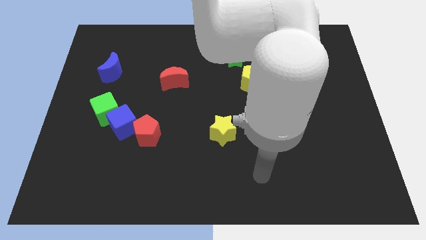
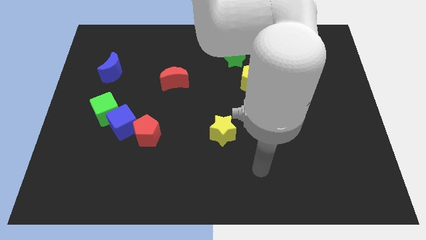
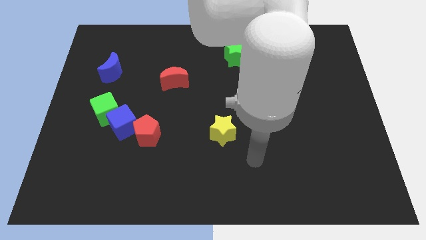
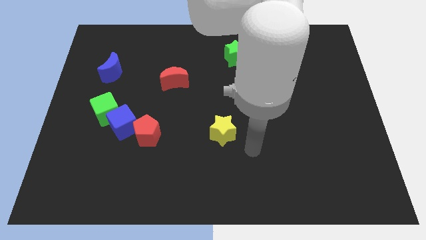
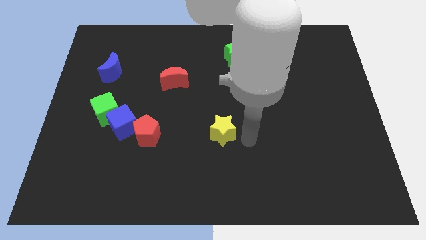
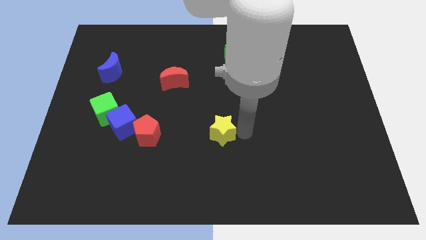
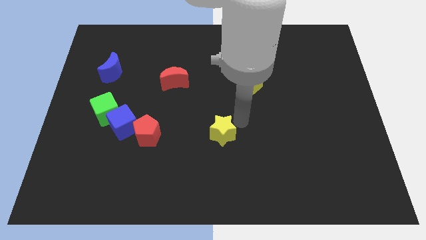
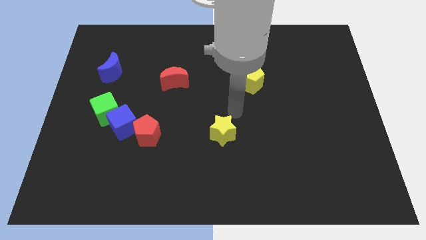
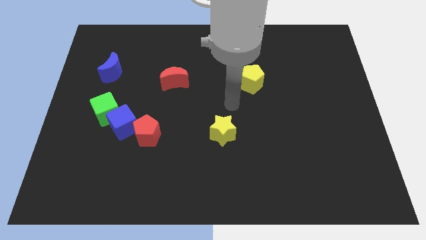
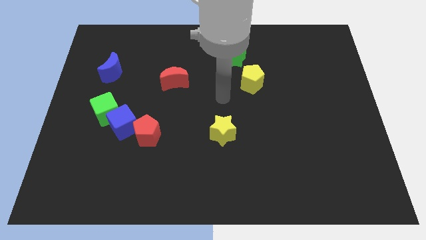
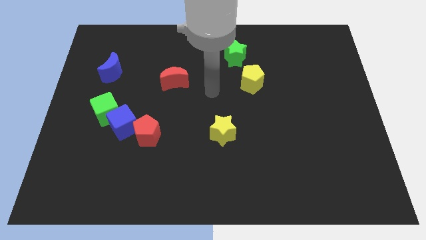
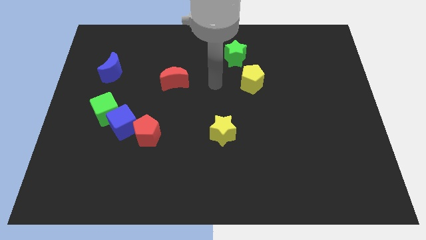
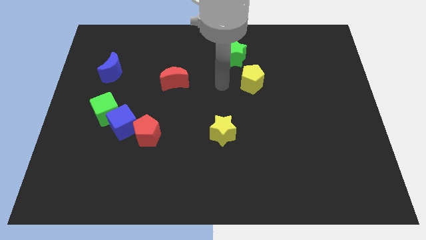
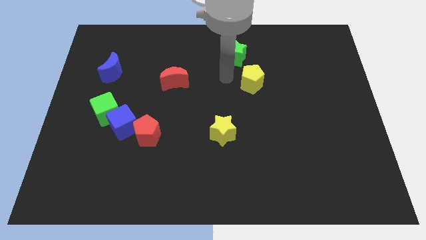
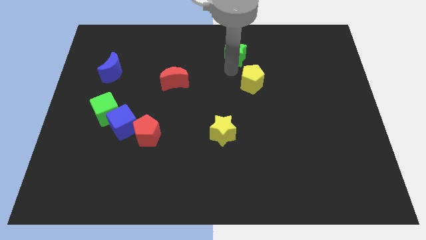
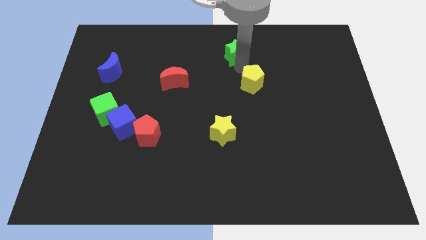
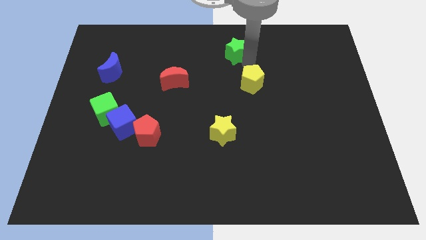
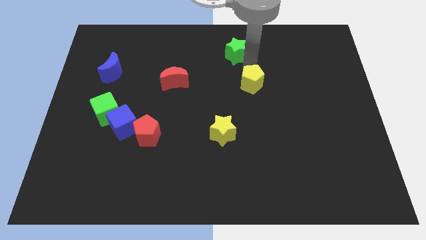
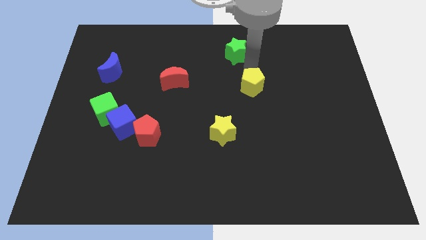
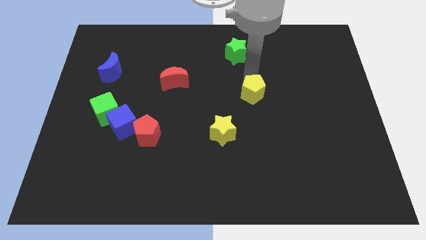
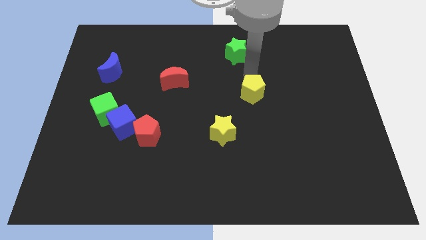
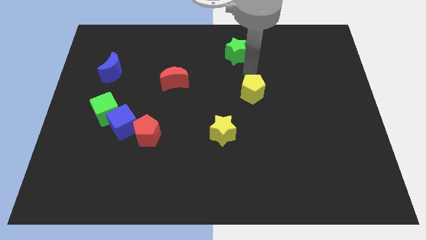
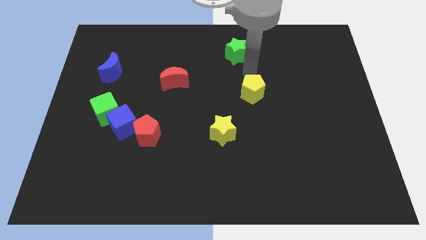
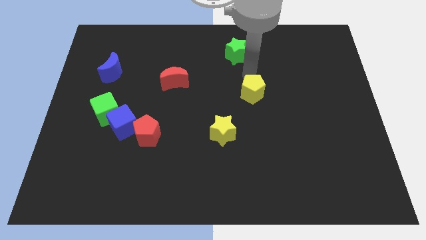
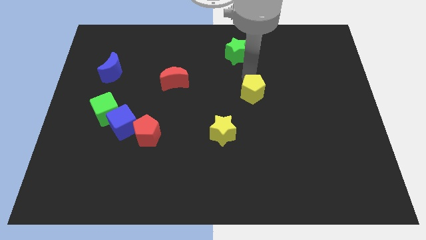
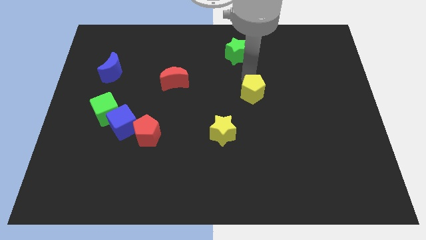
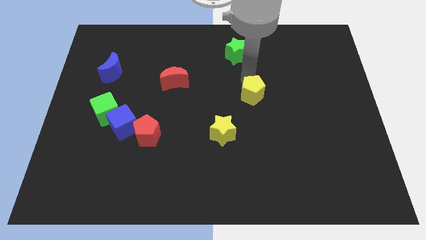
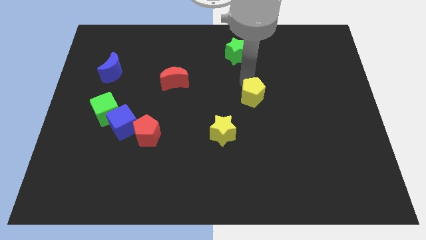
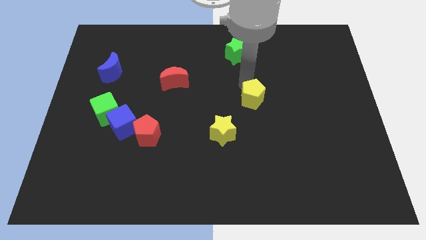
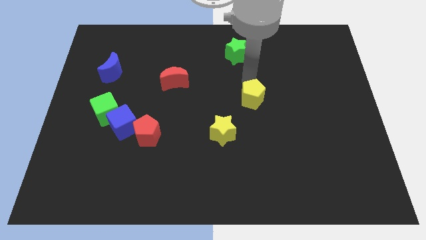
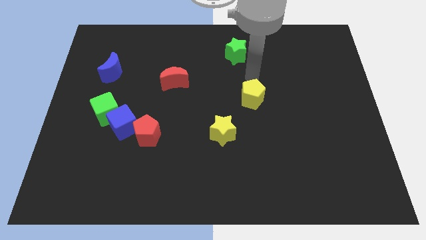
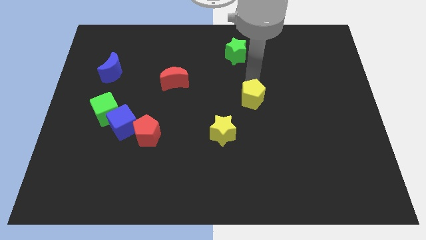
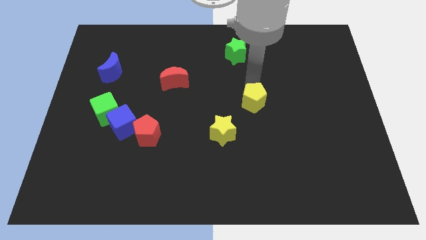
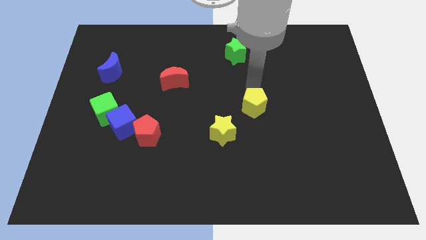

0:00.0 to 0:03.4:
slightly push the yellow pentagon down

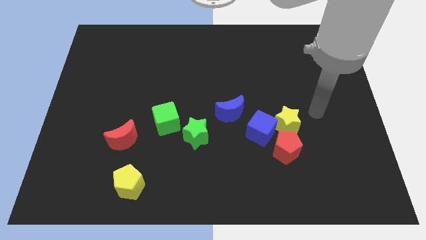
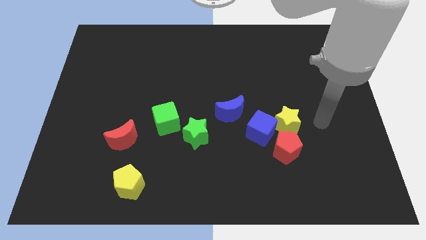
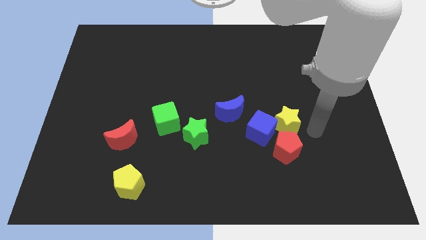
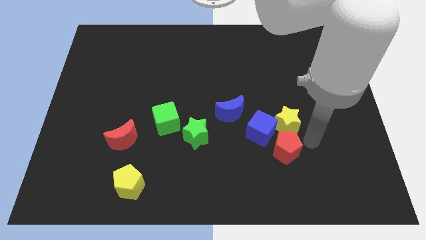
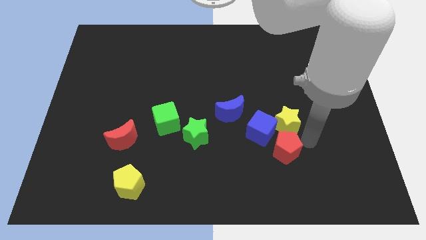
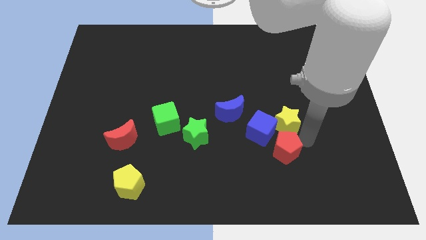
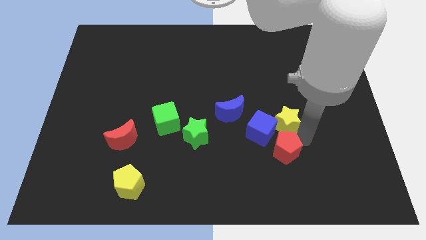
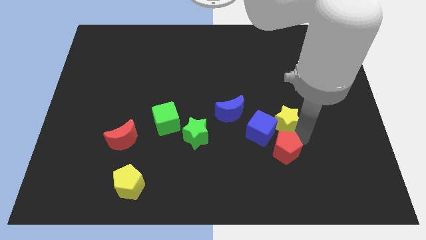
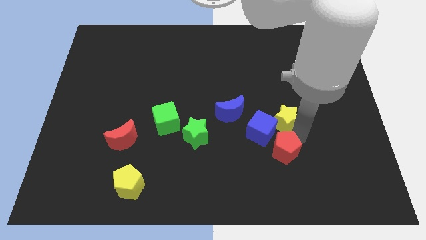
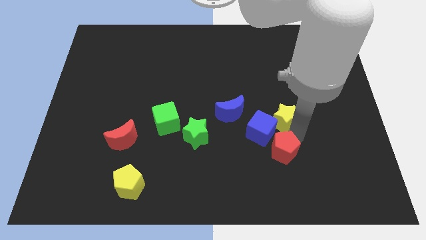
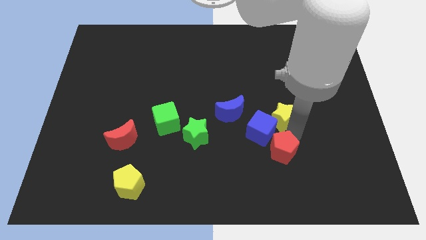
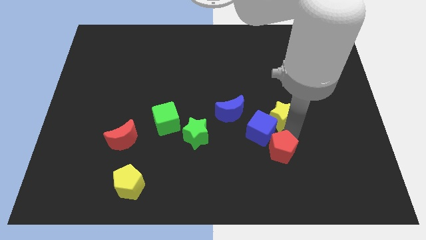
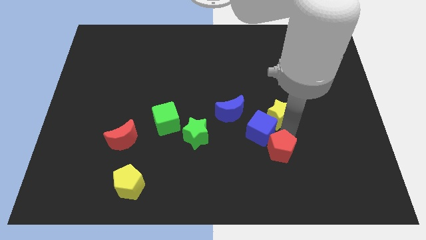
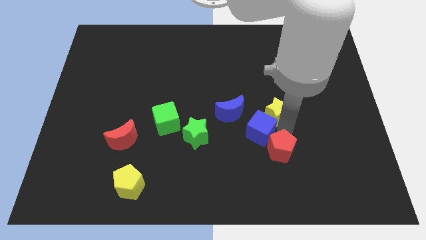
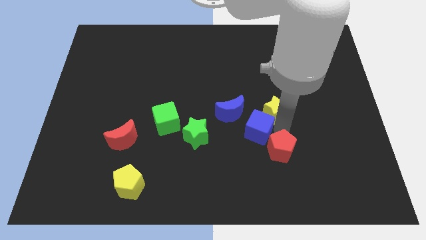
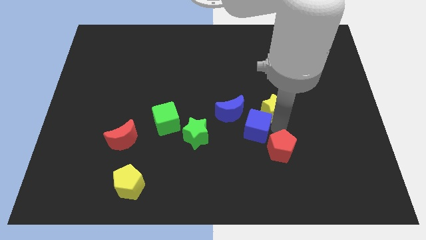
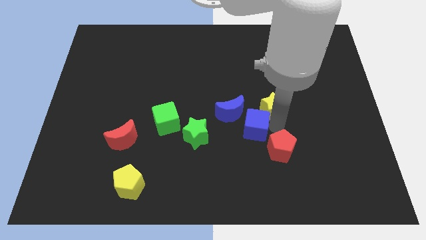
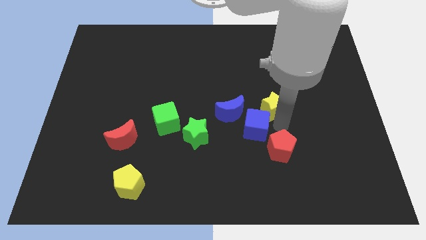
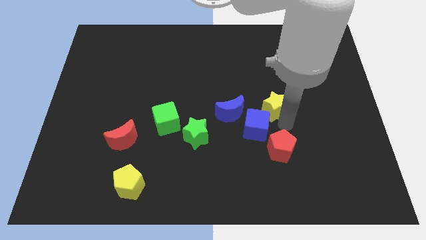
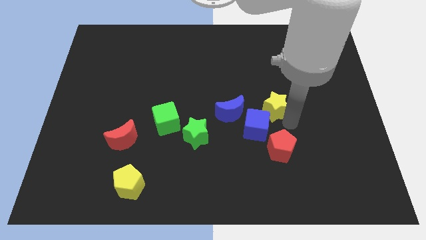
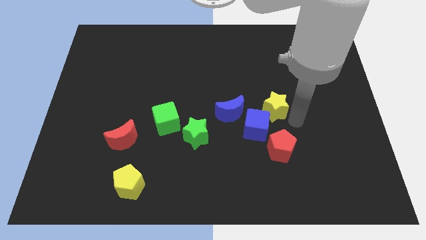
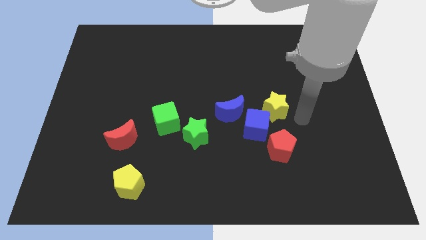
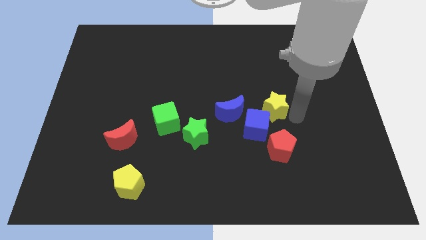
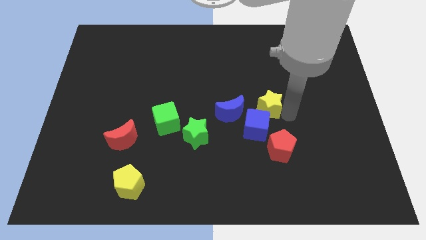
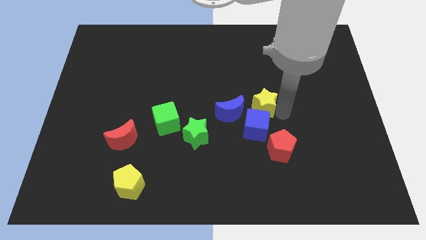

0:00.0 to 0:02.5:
push the yellow star upwards and then to the left a little

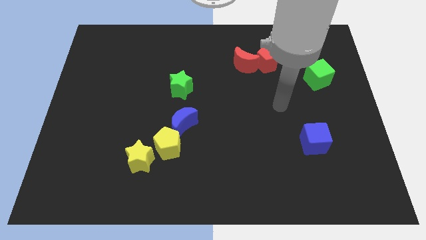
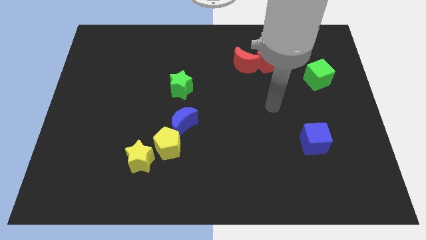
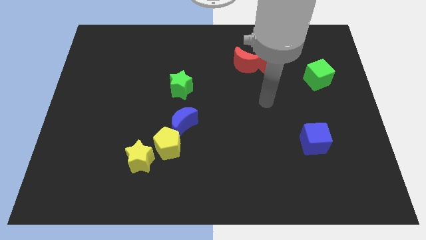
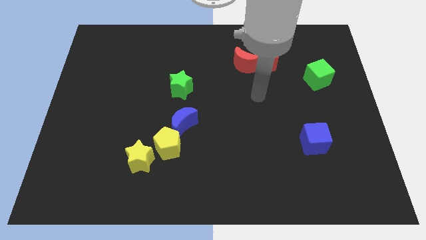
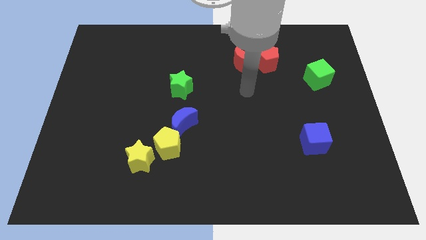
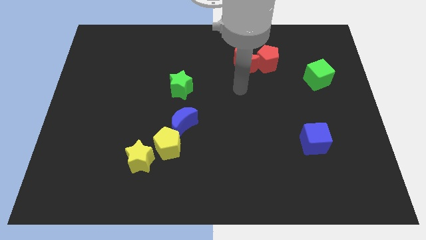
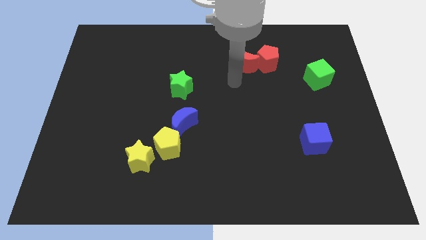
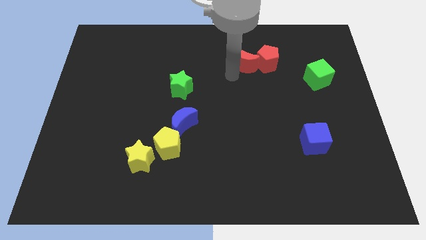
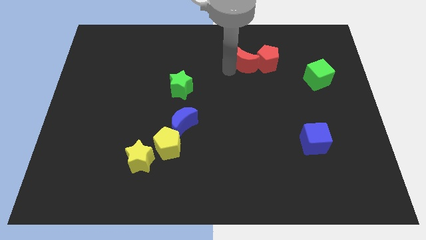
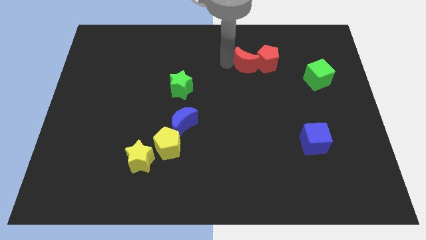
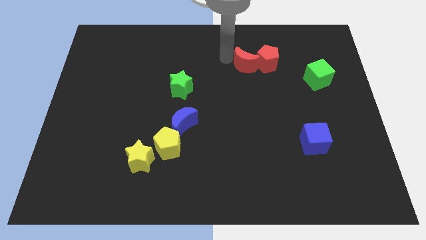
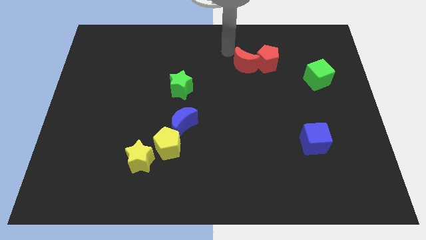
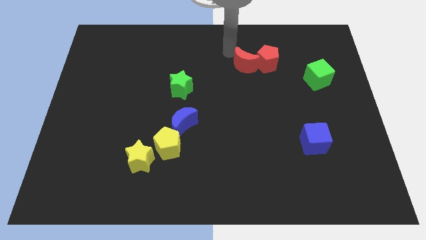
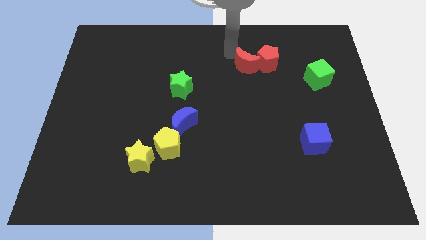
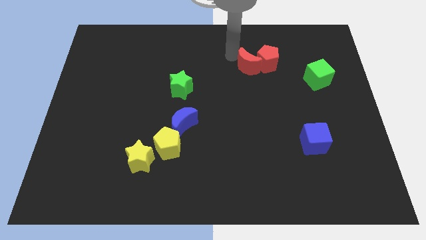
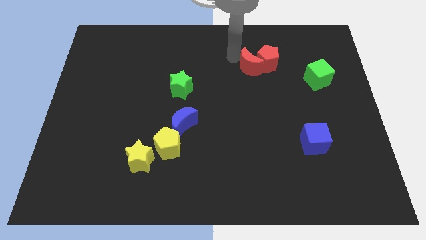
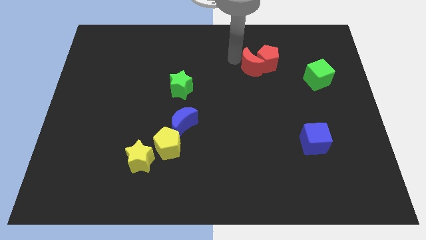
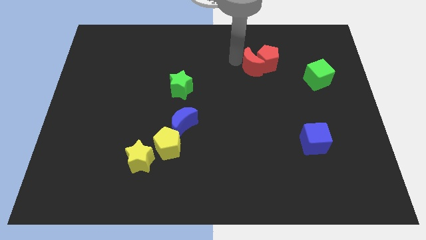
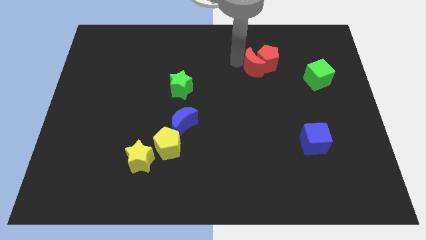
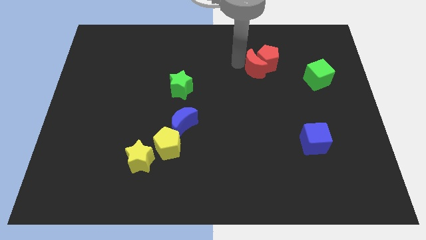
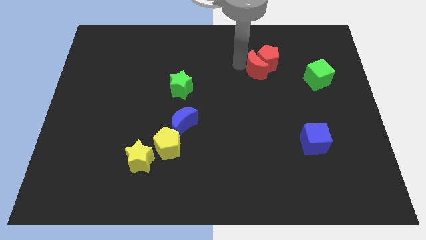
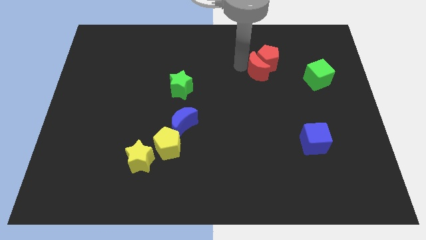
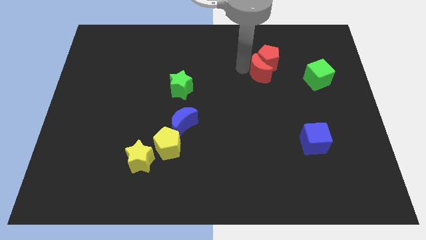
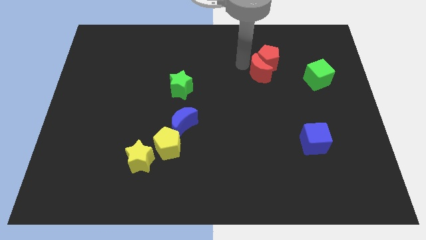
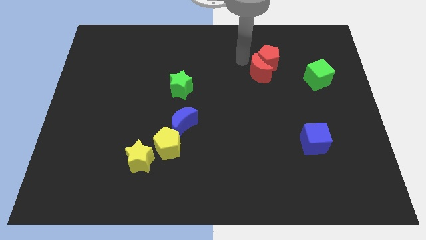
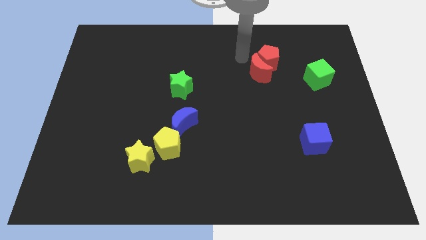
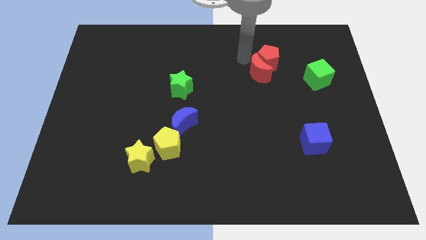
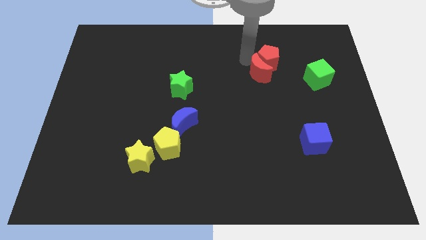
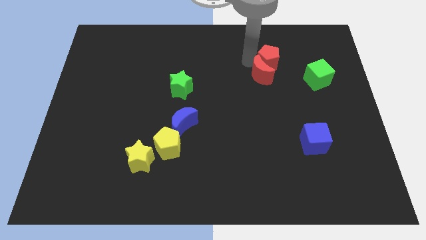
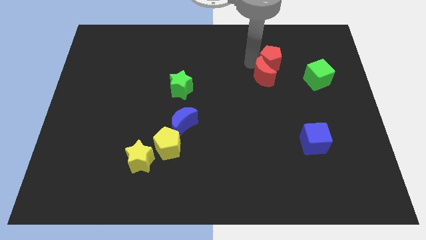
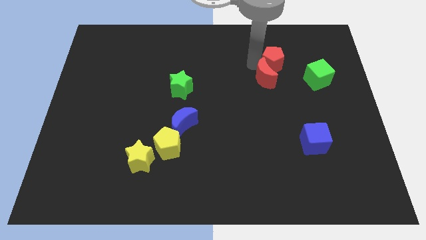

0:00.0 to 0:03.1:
slide the red moon slightly downwards and then right
